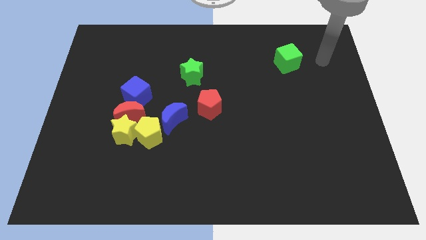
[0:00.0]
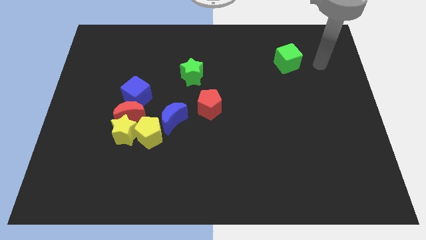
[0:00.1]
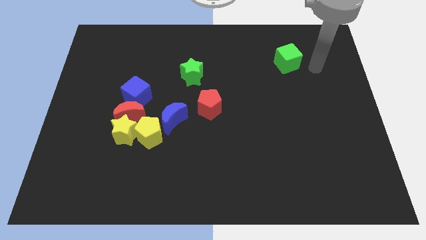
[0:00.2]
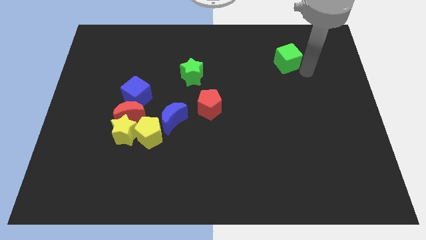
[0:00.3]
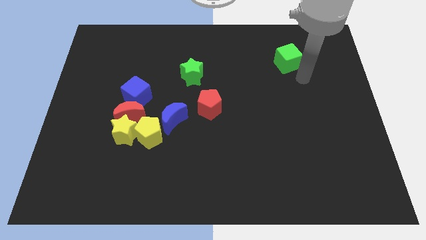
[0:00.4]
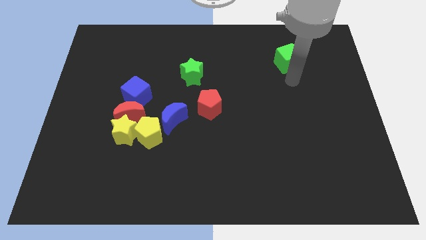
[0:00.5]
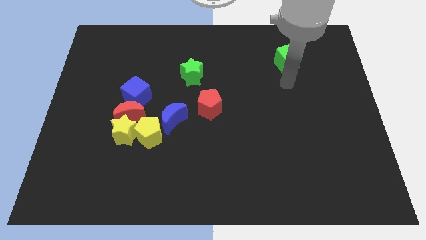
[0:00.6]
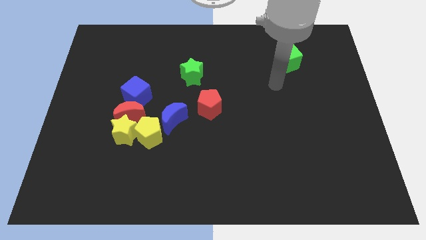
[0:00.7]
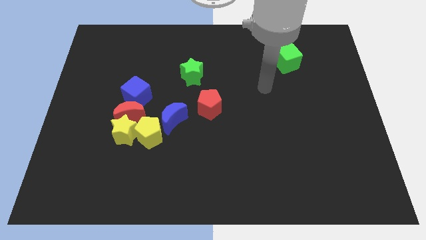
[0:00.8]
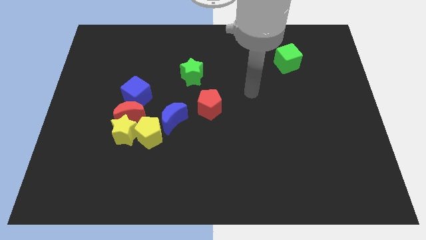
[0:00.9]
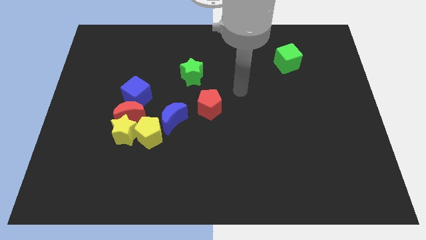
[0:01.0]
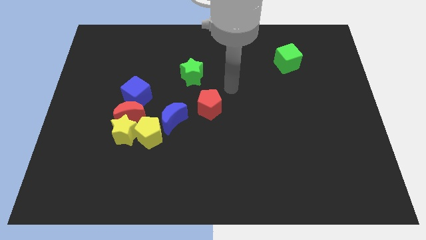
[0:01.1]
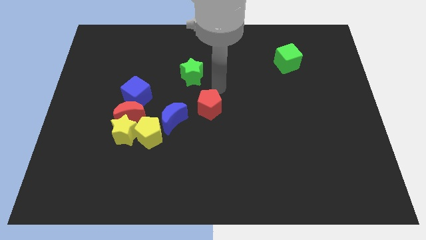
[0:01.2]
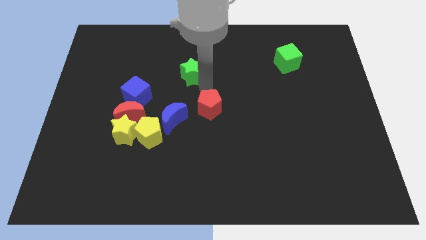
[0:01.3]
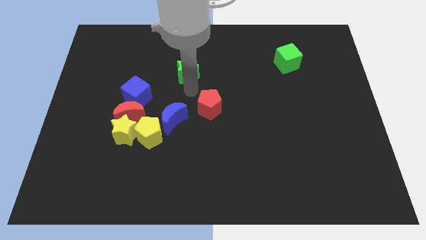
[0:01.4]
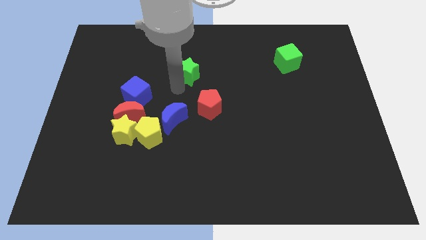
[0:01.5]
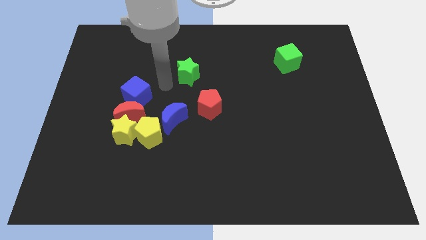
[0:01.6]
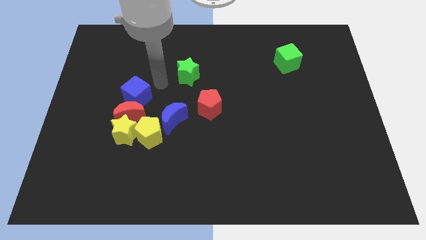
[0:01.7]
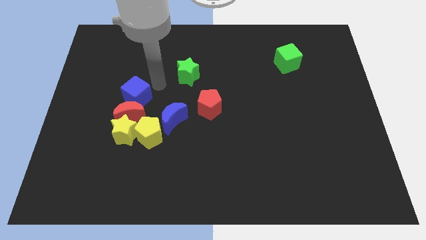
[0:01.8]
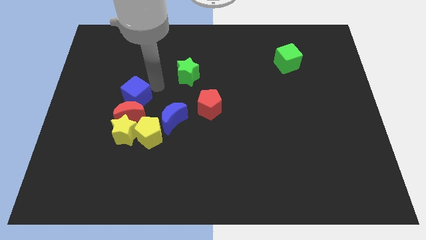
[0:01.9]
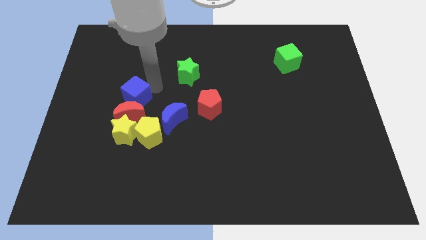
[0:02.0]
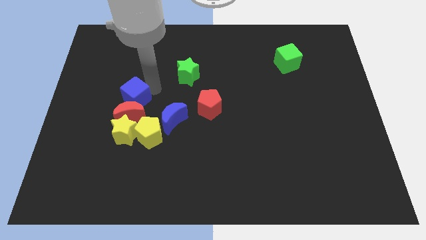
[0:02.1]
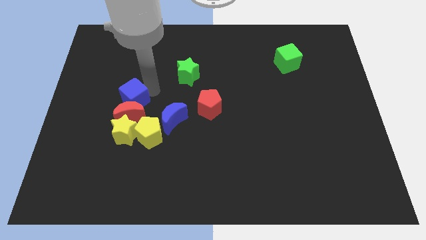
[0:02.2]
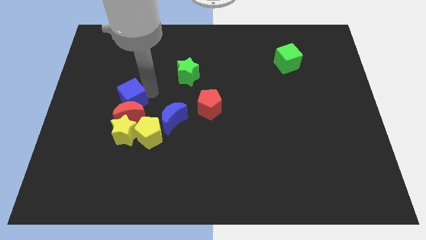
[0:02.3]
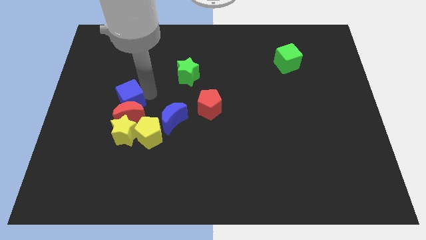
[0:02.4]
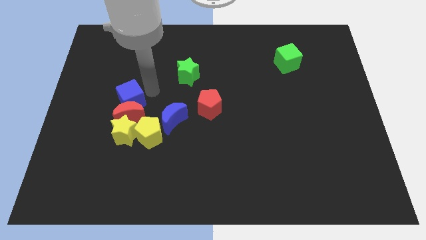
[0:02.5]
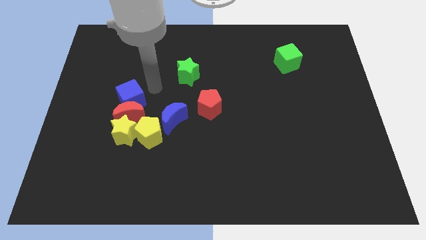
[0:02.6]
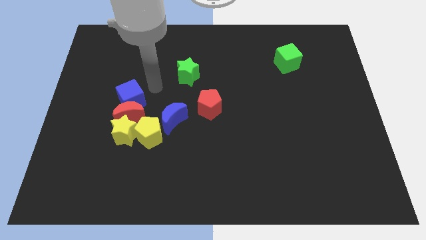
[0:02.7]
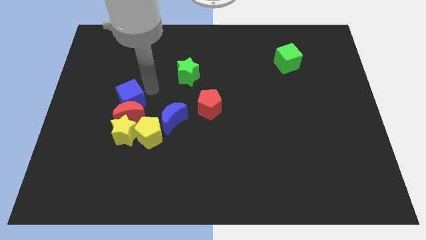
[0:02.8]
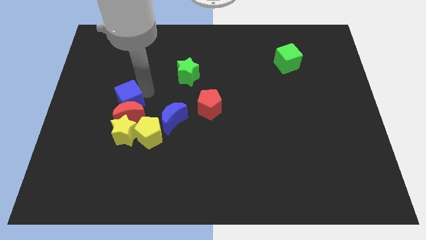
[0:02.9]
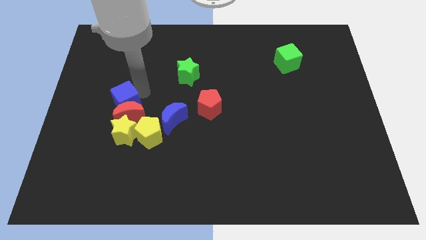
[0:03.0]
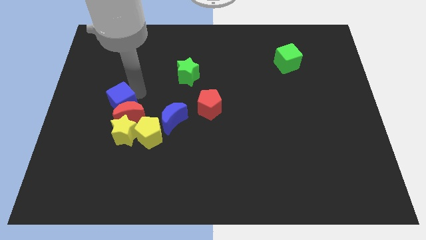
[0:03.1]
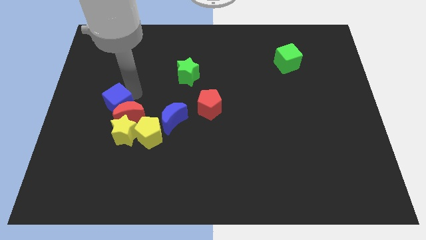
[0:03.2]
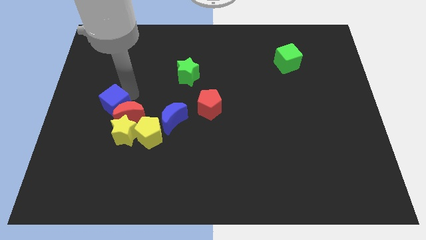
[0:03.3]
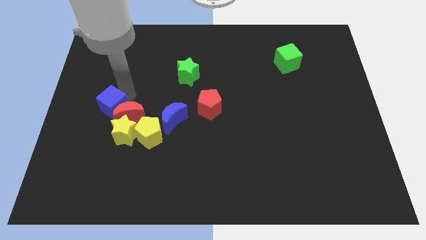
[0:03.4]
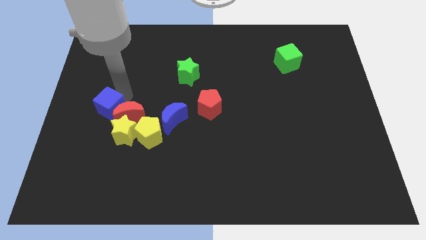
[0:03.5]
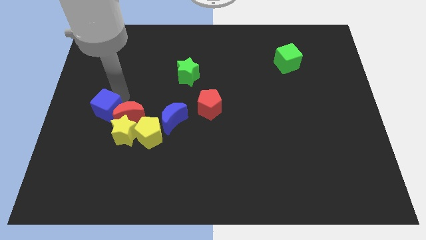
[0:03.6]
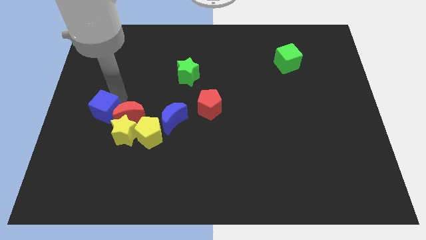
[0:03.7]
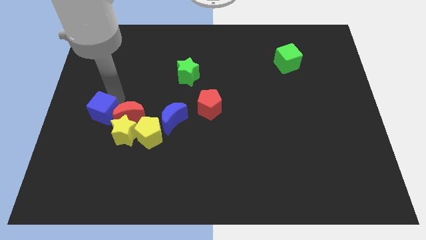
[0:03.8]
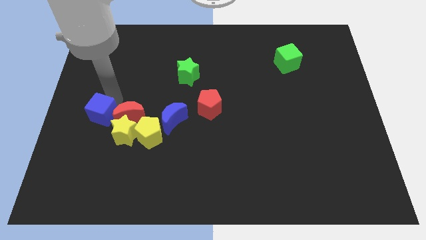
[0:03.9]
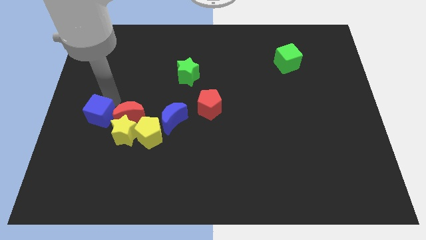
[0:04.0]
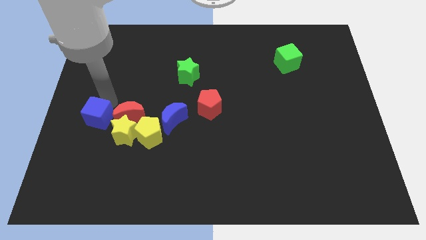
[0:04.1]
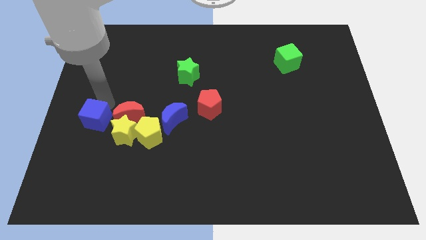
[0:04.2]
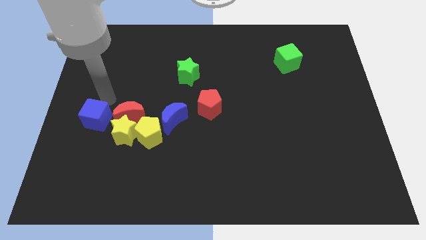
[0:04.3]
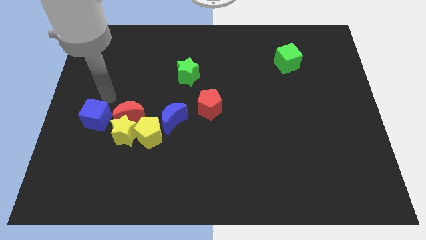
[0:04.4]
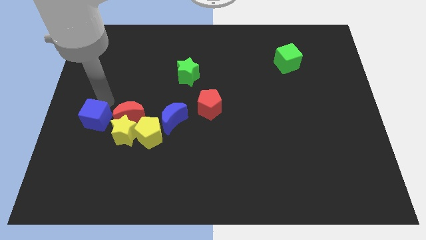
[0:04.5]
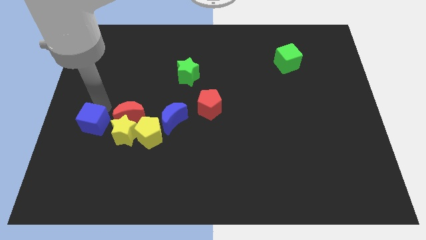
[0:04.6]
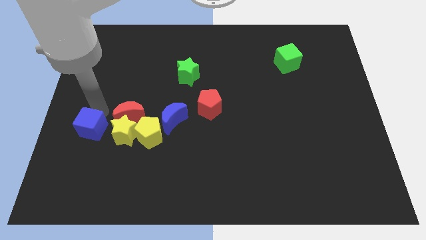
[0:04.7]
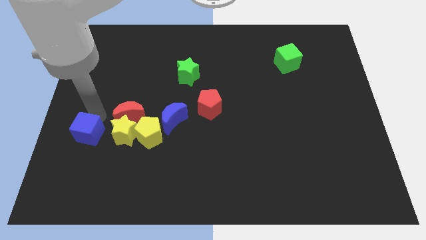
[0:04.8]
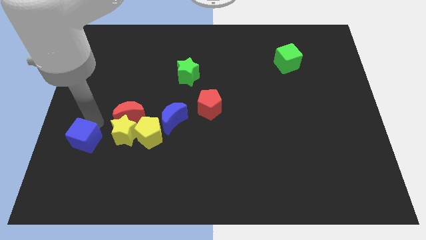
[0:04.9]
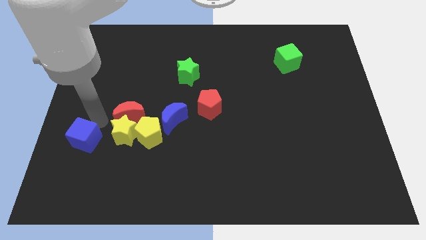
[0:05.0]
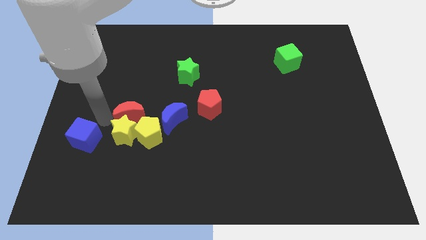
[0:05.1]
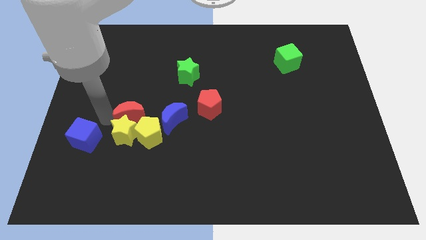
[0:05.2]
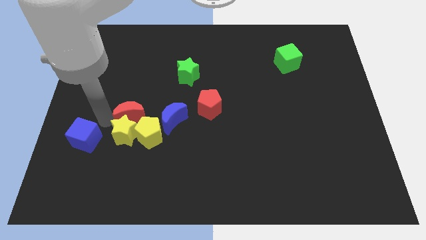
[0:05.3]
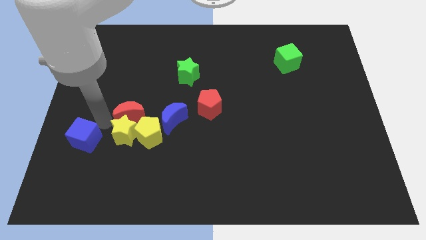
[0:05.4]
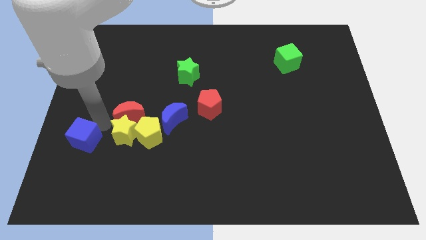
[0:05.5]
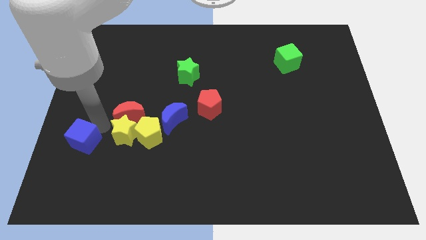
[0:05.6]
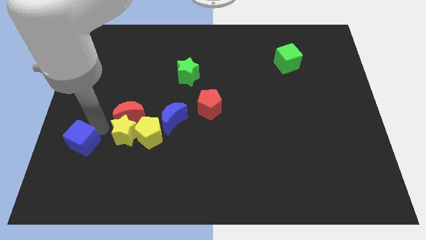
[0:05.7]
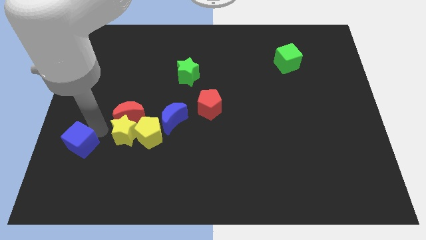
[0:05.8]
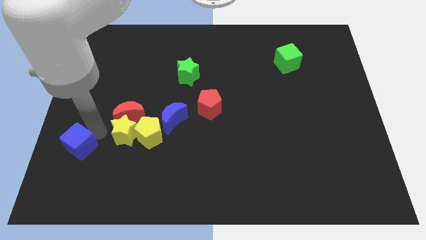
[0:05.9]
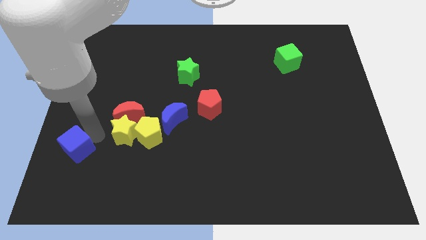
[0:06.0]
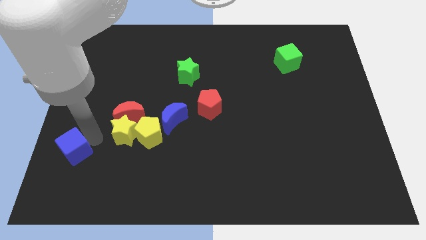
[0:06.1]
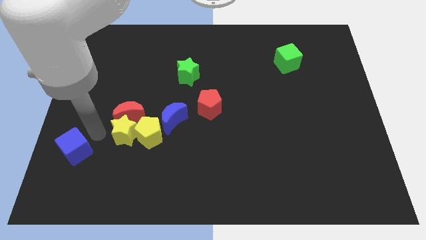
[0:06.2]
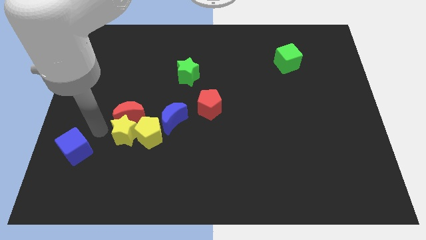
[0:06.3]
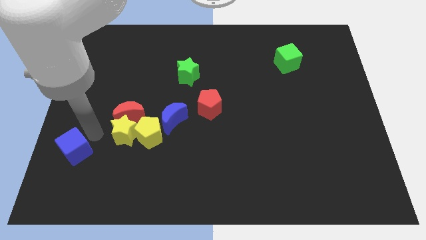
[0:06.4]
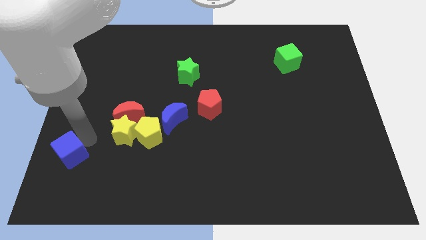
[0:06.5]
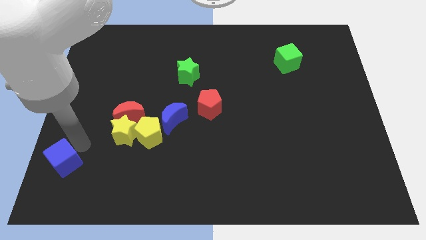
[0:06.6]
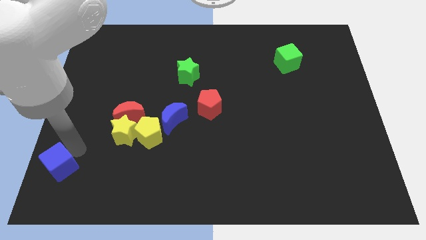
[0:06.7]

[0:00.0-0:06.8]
put the blue cube to the bottom left of the board

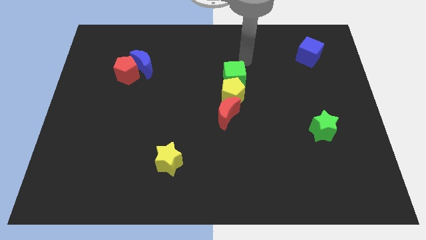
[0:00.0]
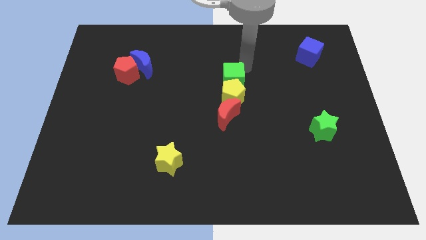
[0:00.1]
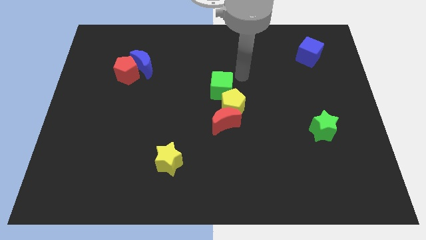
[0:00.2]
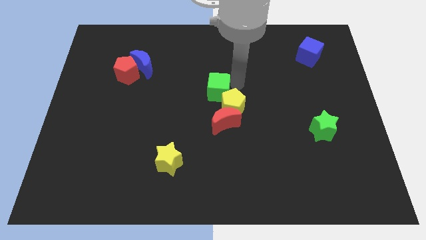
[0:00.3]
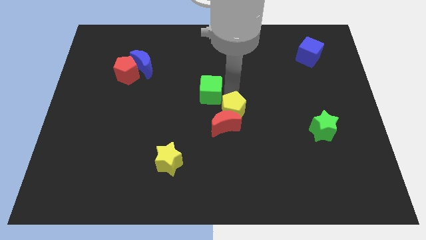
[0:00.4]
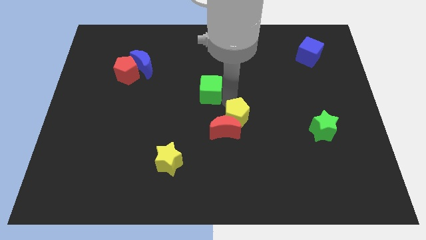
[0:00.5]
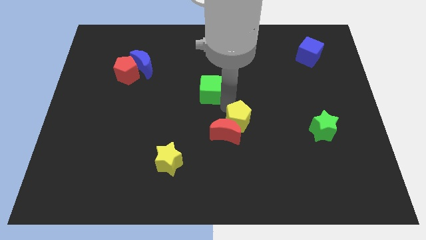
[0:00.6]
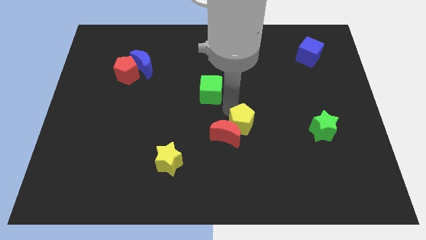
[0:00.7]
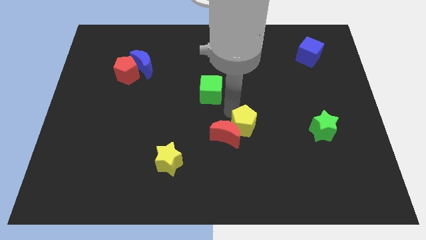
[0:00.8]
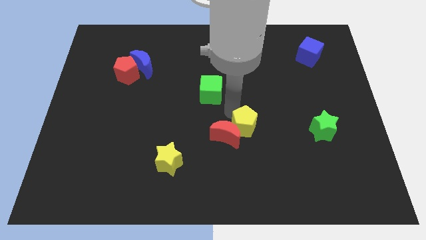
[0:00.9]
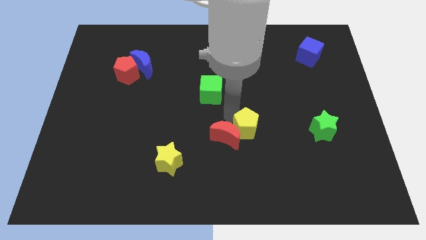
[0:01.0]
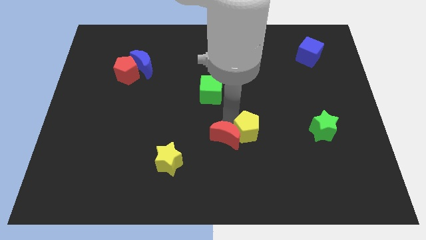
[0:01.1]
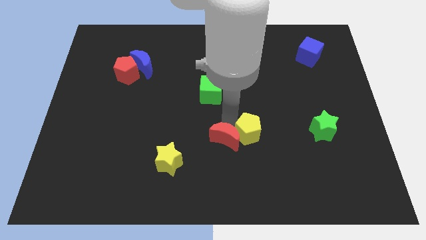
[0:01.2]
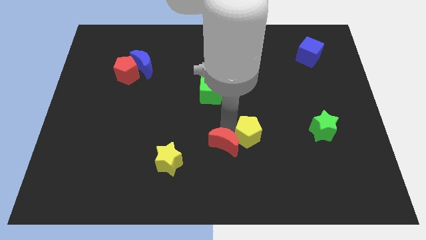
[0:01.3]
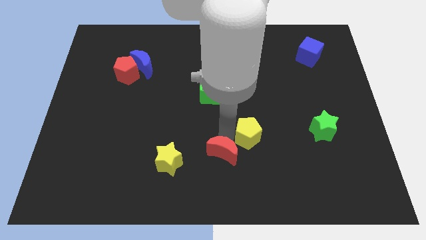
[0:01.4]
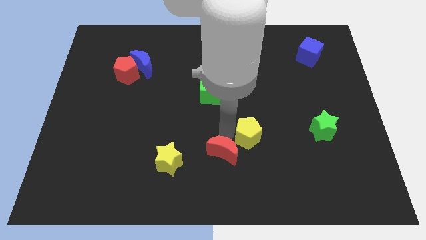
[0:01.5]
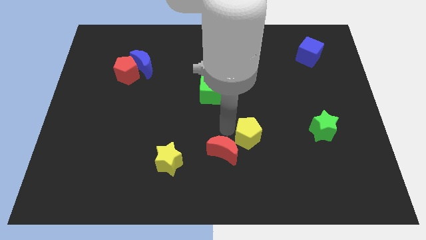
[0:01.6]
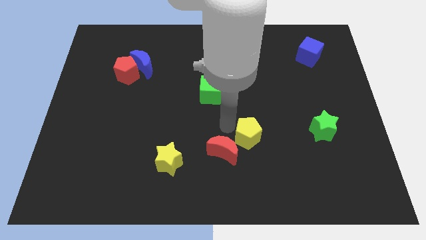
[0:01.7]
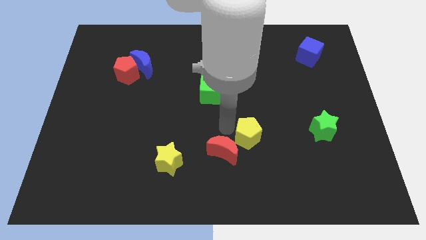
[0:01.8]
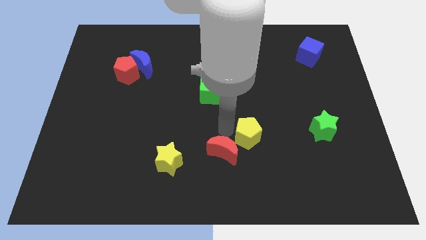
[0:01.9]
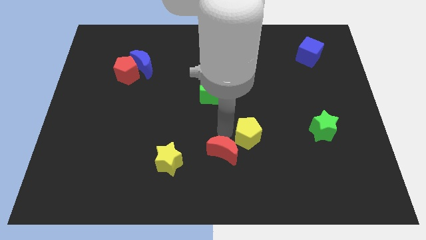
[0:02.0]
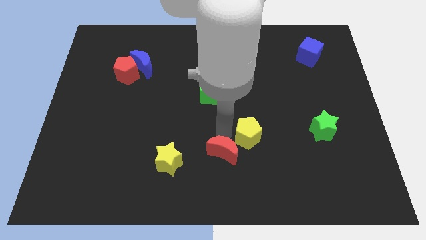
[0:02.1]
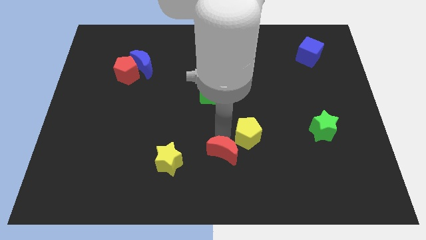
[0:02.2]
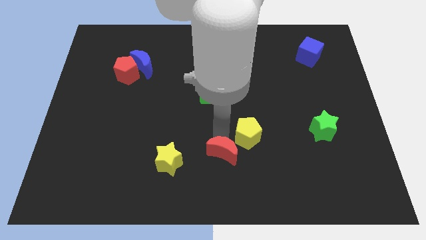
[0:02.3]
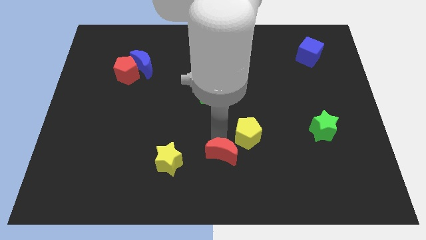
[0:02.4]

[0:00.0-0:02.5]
push the red moon to the bottom side
